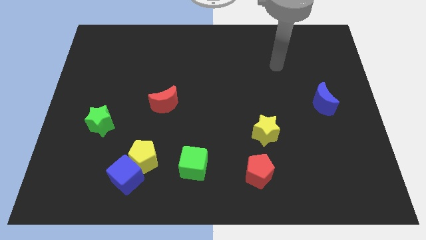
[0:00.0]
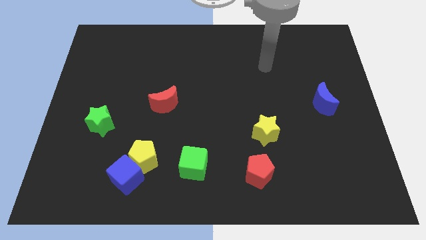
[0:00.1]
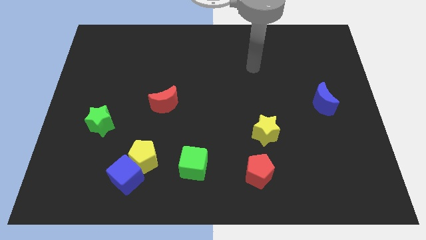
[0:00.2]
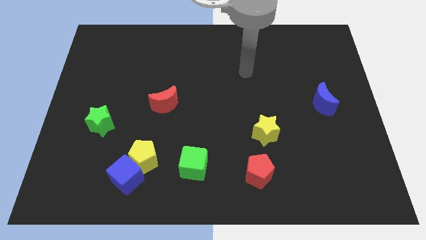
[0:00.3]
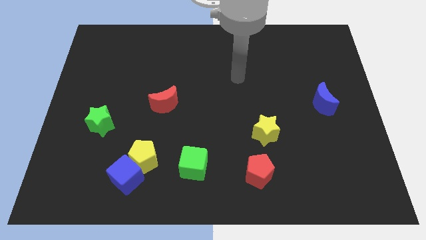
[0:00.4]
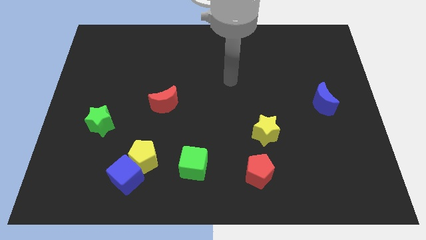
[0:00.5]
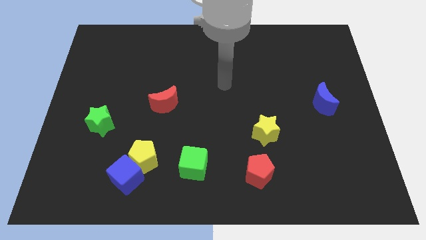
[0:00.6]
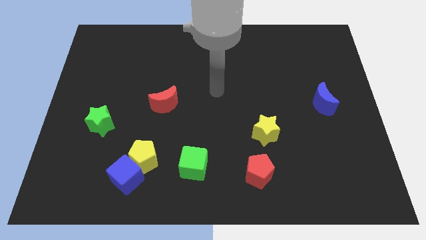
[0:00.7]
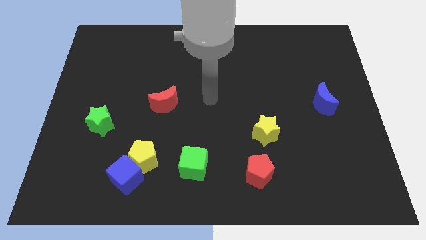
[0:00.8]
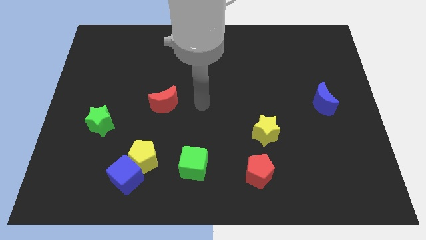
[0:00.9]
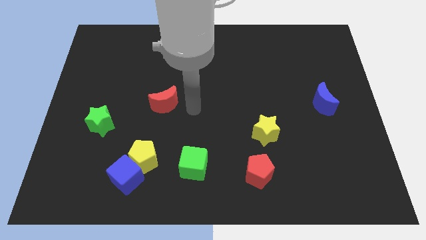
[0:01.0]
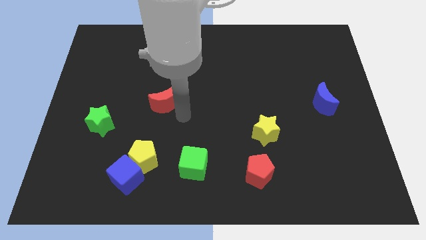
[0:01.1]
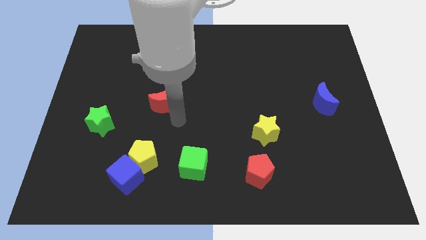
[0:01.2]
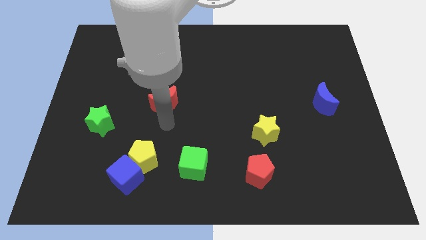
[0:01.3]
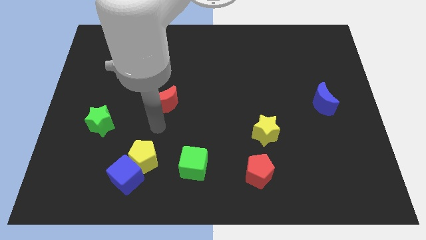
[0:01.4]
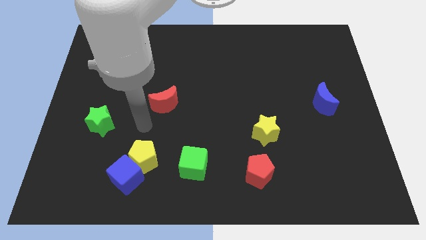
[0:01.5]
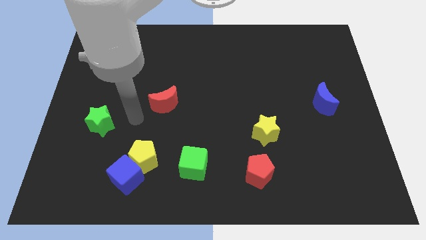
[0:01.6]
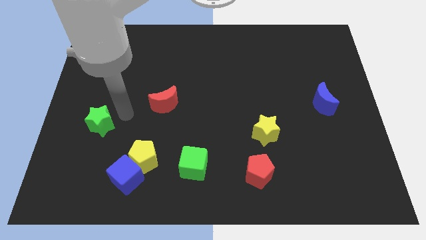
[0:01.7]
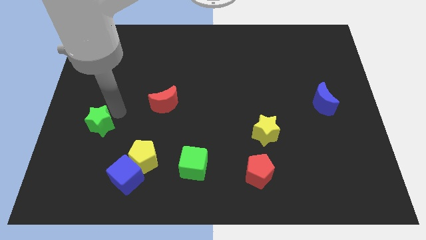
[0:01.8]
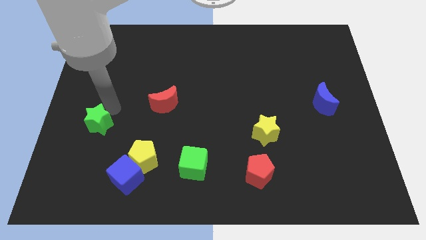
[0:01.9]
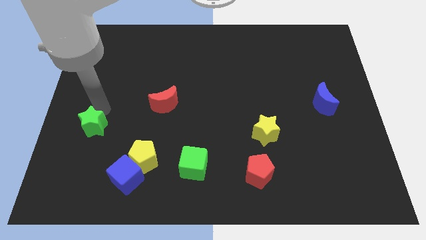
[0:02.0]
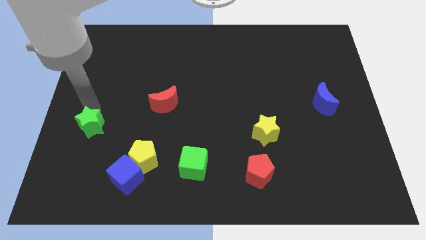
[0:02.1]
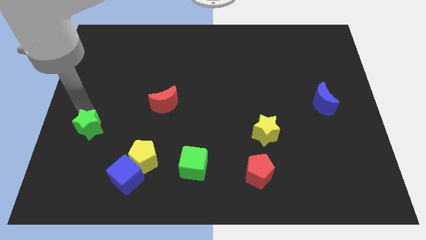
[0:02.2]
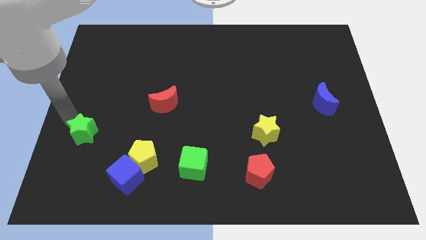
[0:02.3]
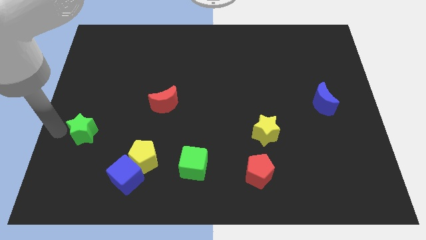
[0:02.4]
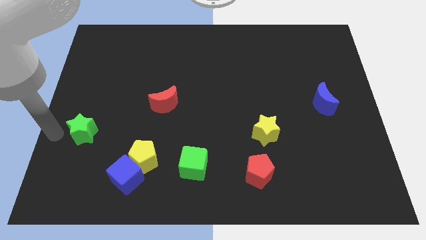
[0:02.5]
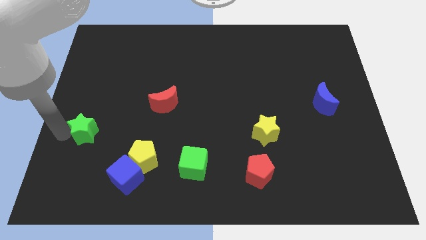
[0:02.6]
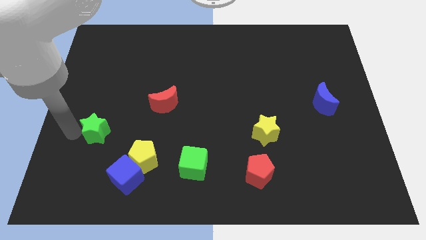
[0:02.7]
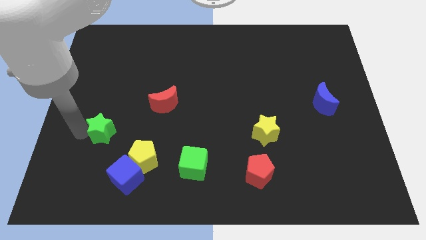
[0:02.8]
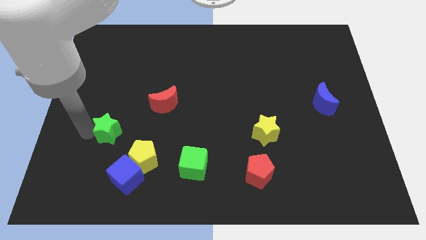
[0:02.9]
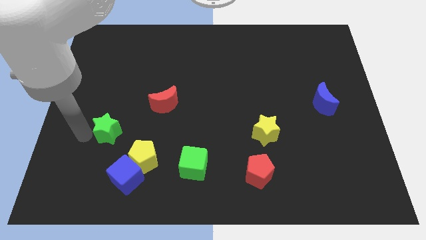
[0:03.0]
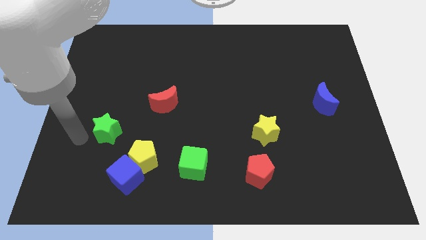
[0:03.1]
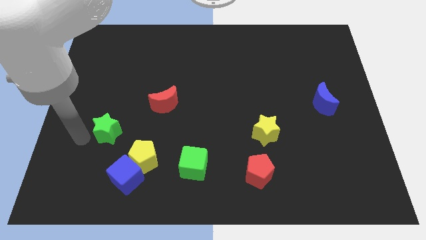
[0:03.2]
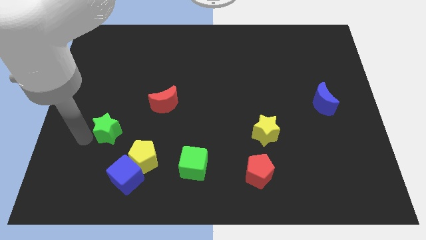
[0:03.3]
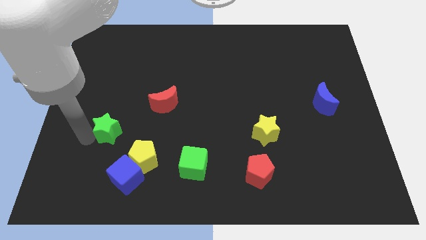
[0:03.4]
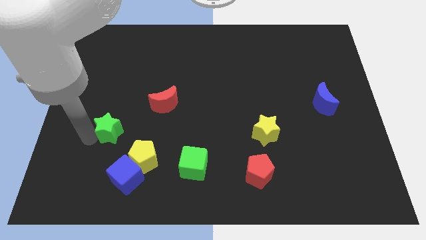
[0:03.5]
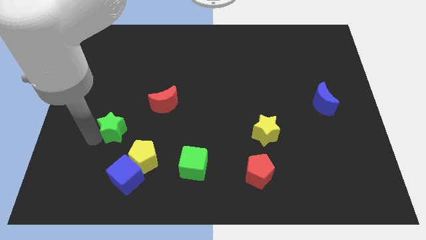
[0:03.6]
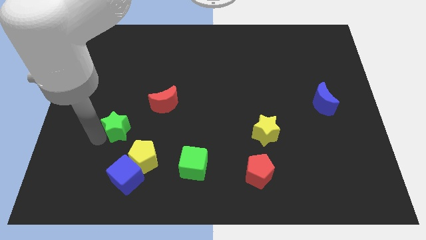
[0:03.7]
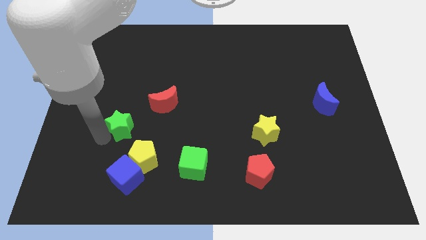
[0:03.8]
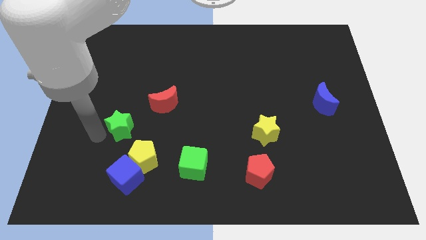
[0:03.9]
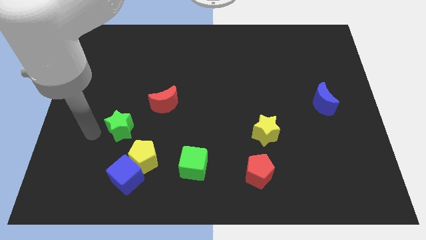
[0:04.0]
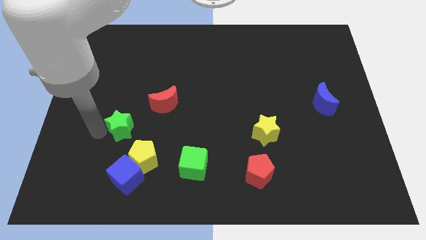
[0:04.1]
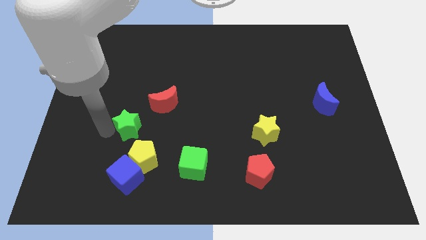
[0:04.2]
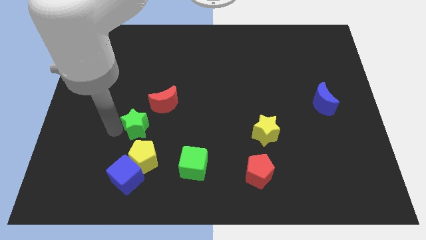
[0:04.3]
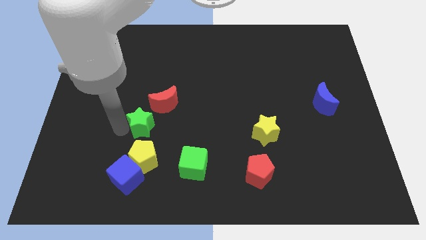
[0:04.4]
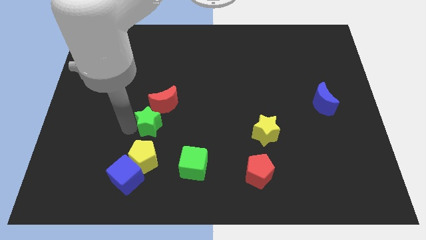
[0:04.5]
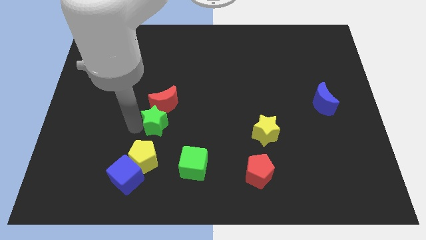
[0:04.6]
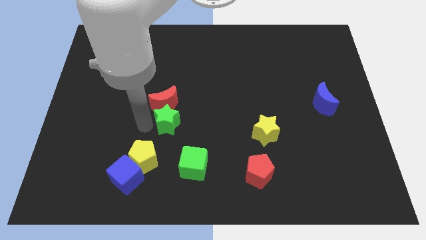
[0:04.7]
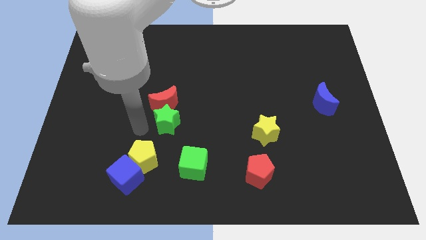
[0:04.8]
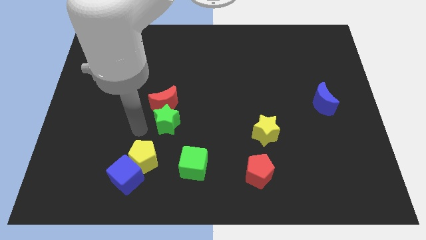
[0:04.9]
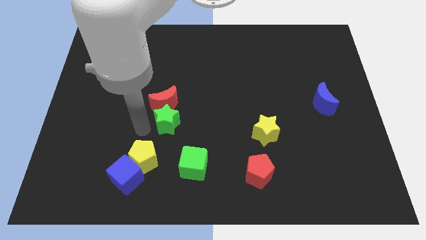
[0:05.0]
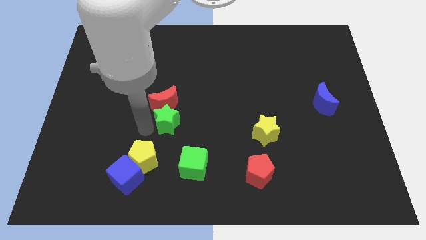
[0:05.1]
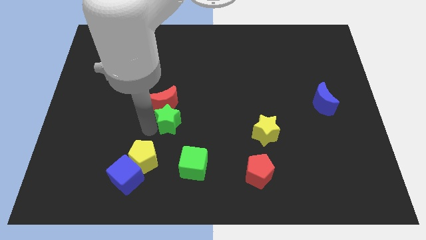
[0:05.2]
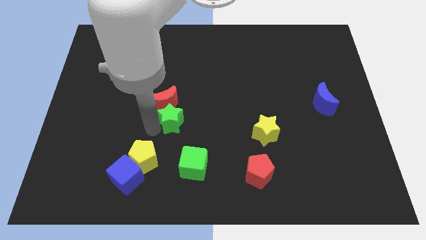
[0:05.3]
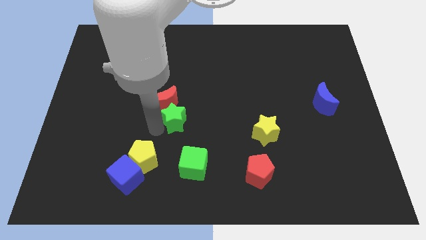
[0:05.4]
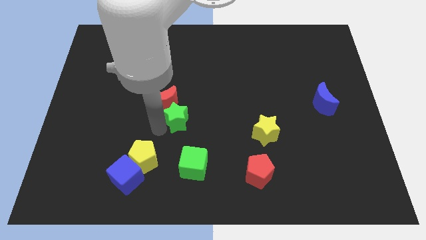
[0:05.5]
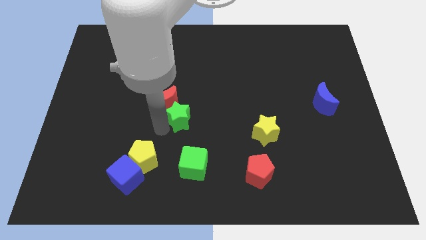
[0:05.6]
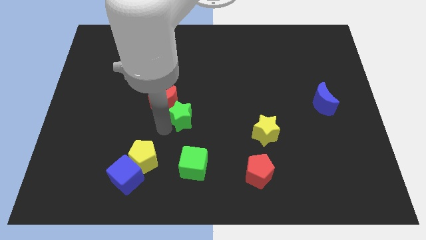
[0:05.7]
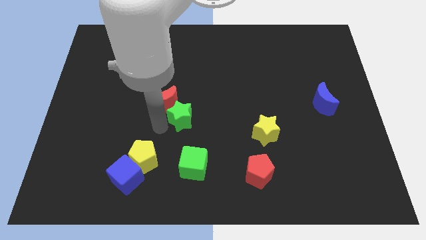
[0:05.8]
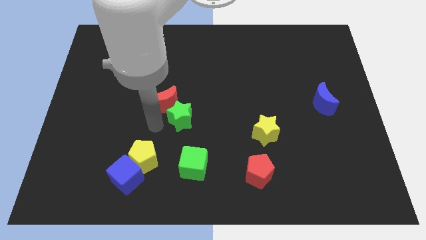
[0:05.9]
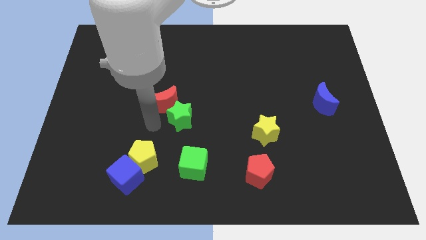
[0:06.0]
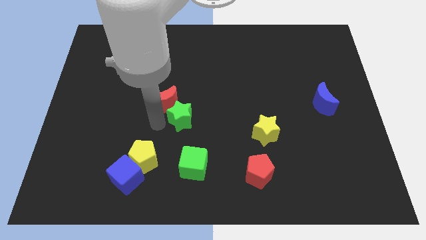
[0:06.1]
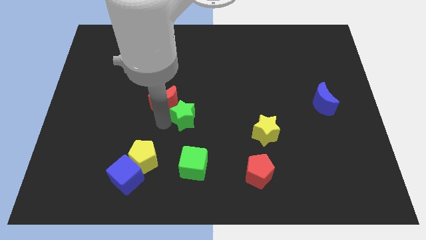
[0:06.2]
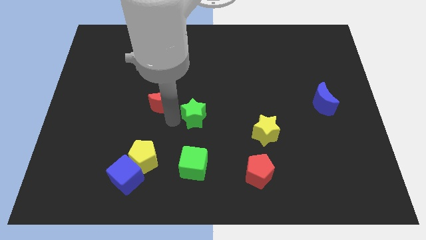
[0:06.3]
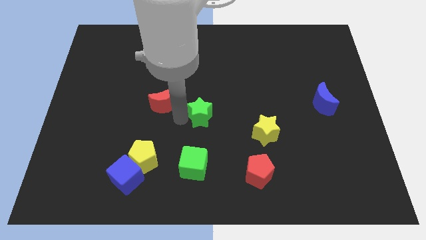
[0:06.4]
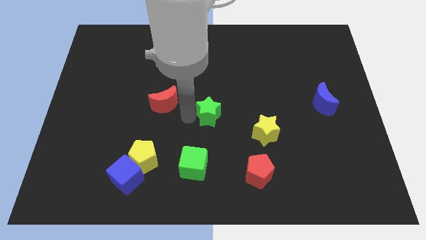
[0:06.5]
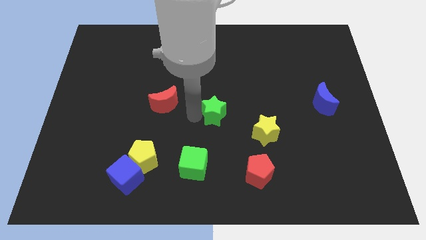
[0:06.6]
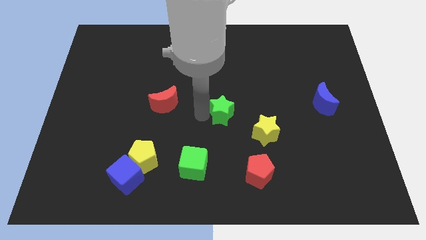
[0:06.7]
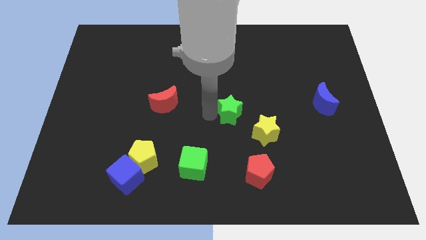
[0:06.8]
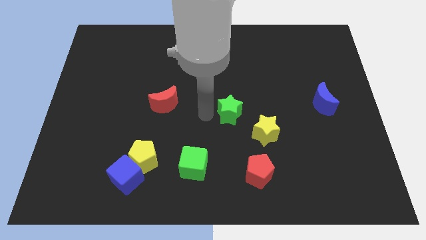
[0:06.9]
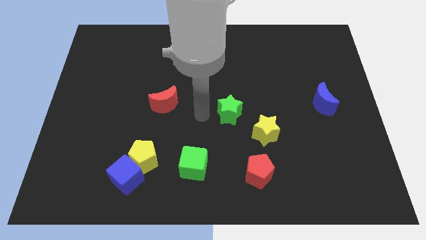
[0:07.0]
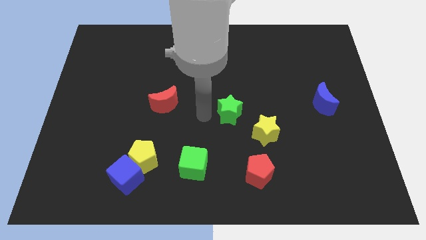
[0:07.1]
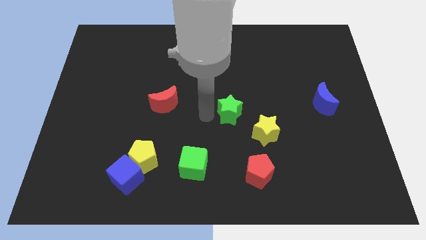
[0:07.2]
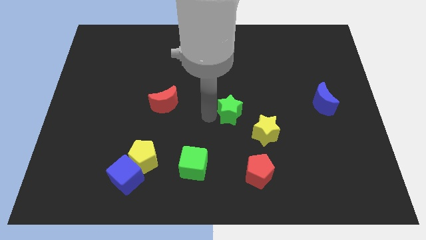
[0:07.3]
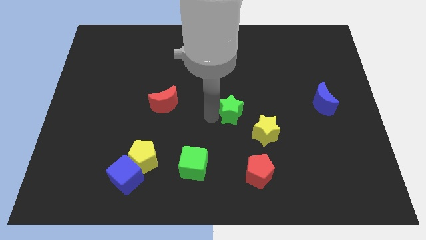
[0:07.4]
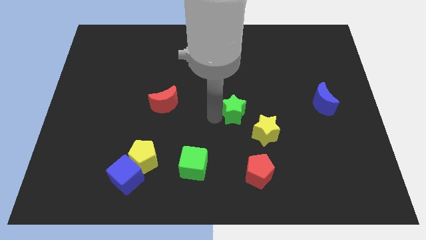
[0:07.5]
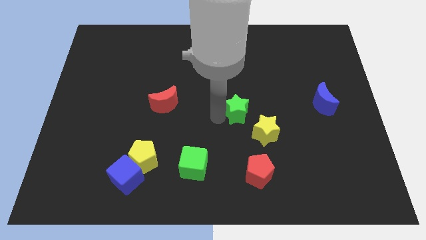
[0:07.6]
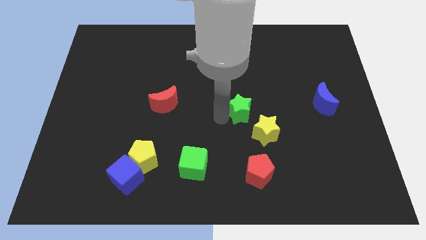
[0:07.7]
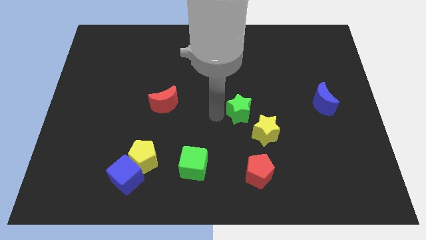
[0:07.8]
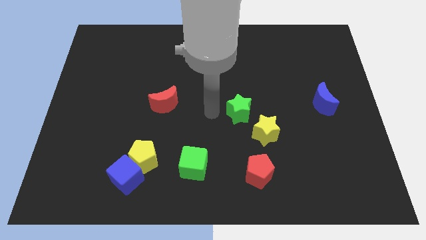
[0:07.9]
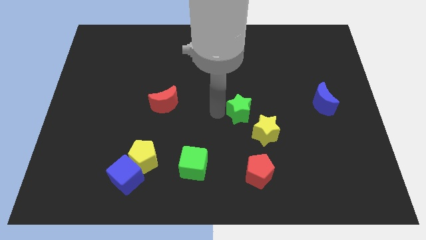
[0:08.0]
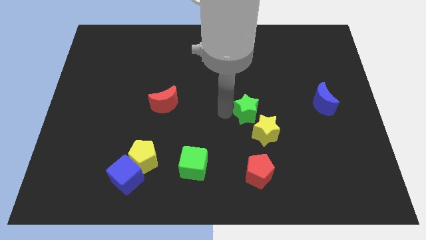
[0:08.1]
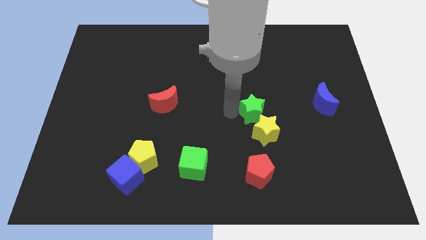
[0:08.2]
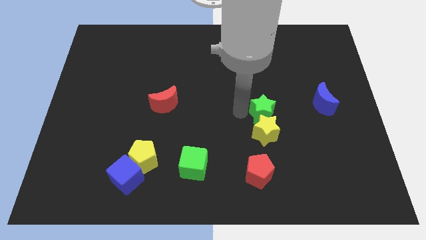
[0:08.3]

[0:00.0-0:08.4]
push the green star diagonally up and to the right of the yellow star
